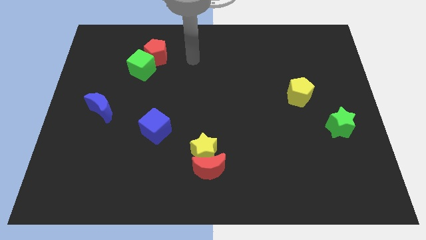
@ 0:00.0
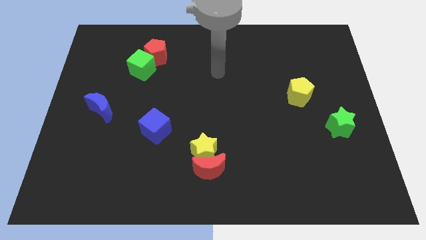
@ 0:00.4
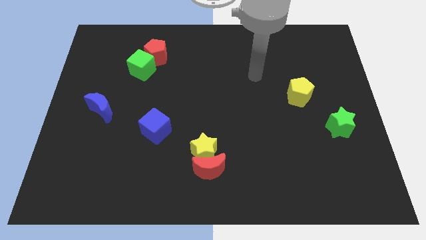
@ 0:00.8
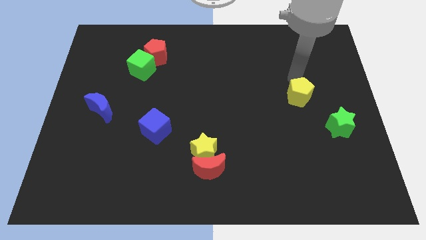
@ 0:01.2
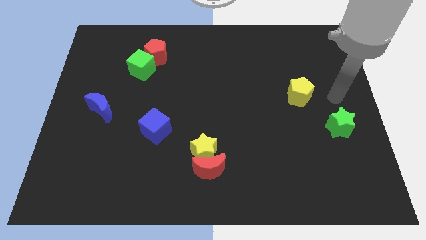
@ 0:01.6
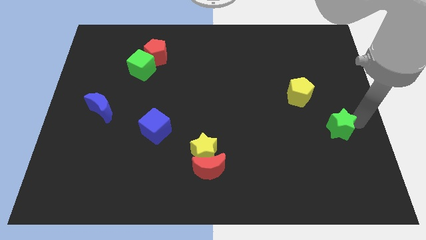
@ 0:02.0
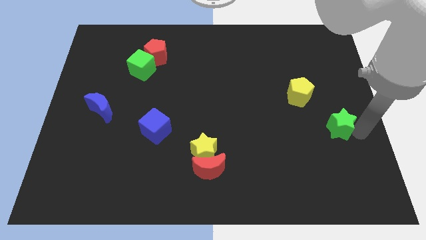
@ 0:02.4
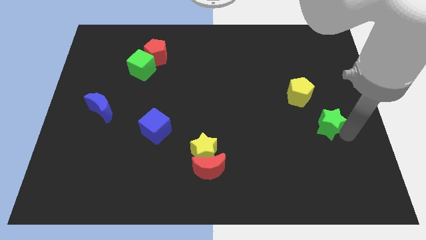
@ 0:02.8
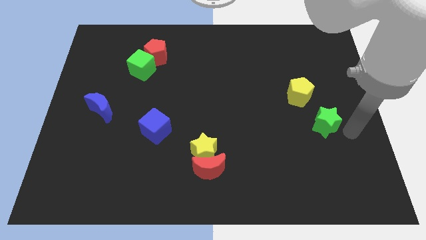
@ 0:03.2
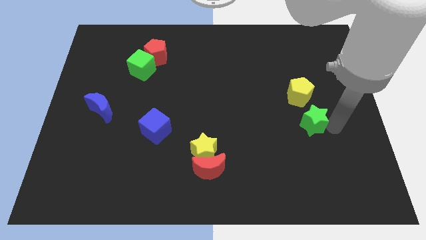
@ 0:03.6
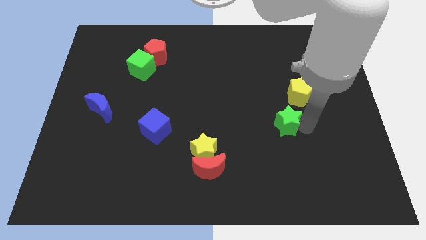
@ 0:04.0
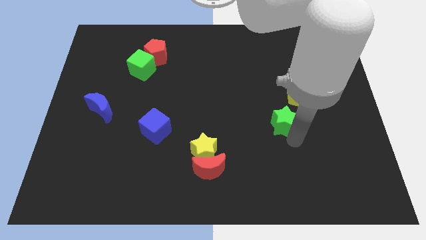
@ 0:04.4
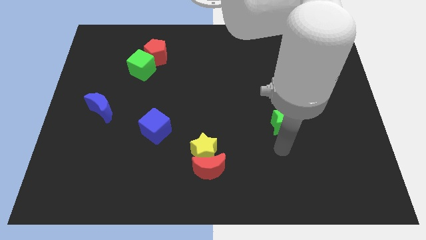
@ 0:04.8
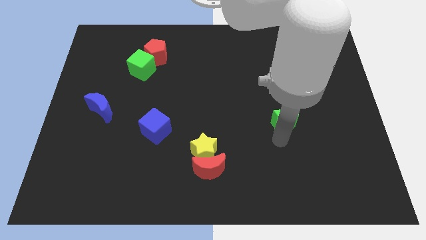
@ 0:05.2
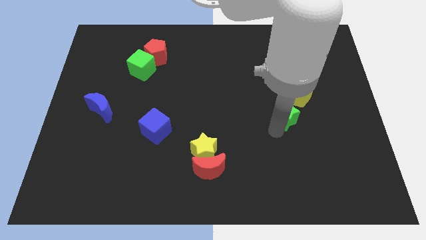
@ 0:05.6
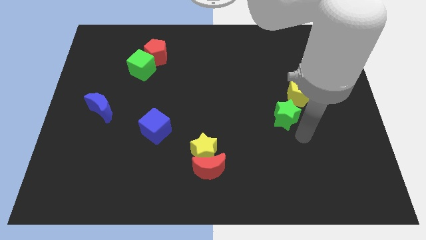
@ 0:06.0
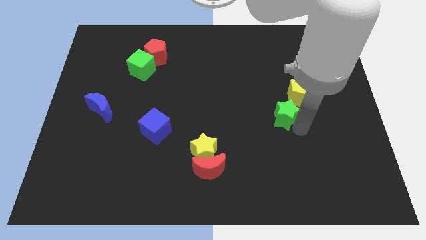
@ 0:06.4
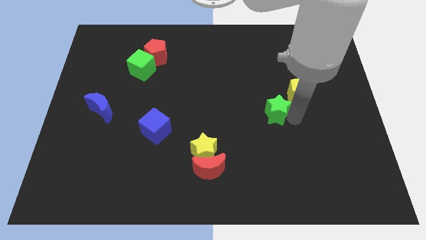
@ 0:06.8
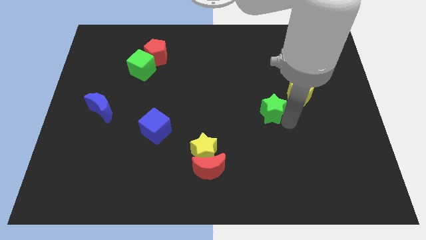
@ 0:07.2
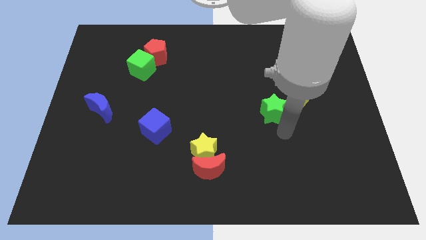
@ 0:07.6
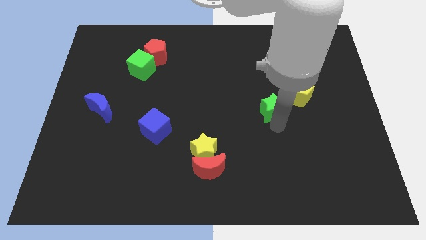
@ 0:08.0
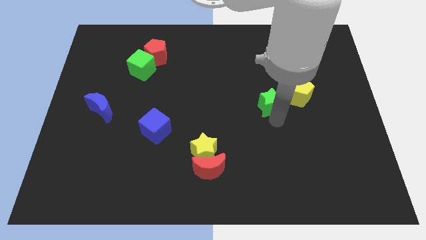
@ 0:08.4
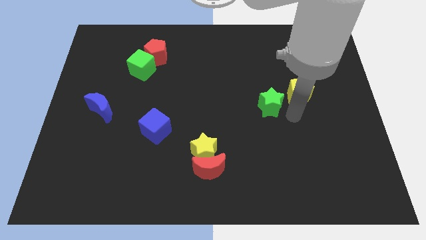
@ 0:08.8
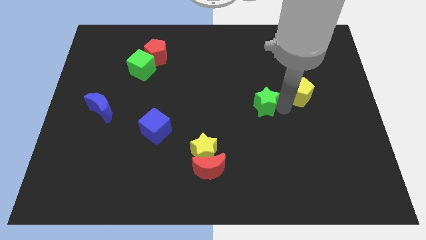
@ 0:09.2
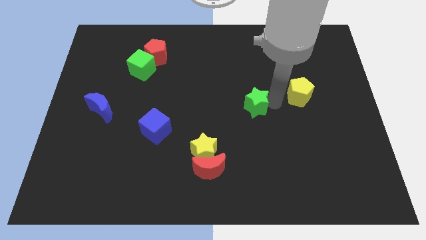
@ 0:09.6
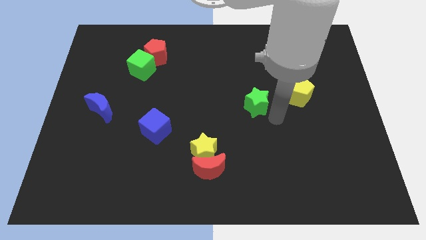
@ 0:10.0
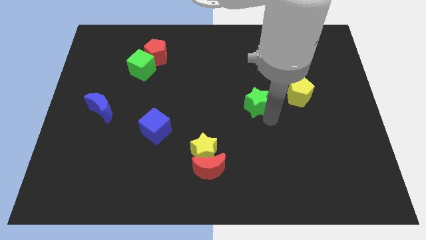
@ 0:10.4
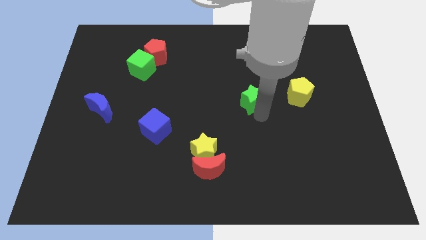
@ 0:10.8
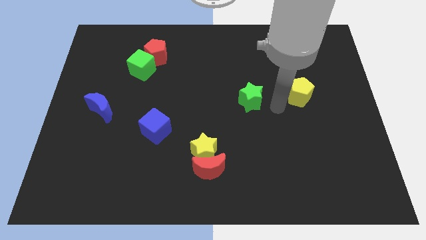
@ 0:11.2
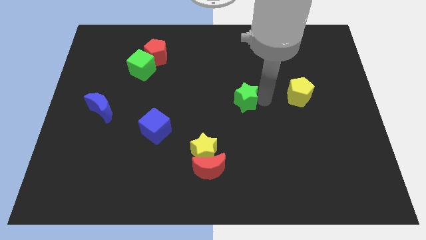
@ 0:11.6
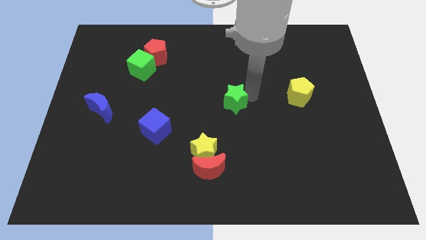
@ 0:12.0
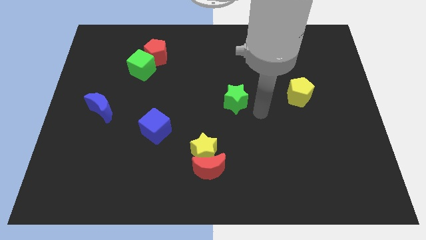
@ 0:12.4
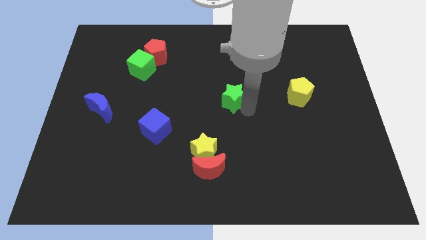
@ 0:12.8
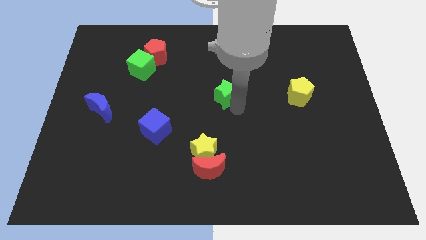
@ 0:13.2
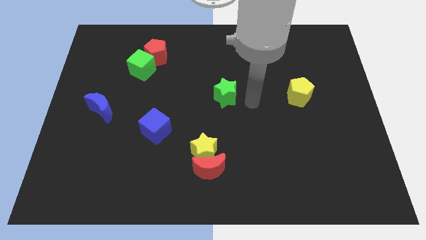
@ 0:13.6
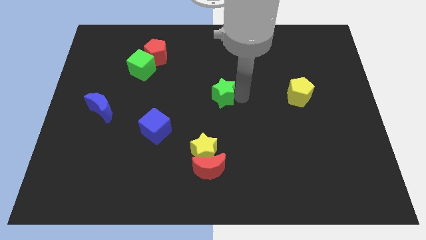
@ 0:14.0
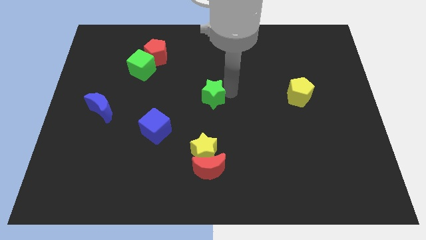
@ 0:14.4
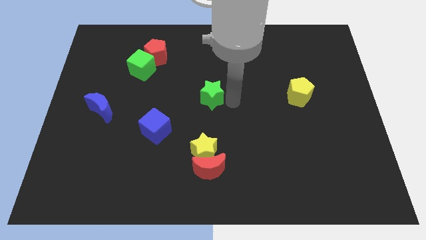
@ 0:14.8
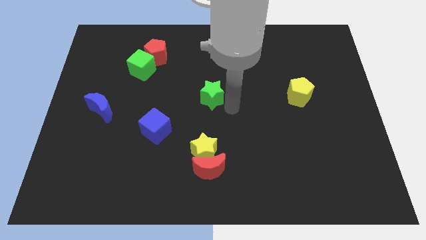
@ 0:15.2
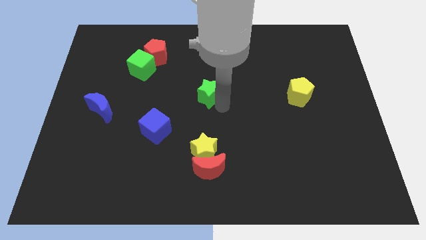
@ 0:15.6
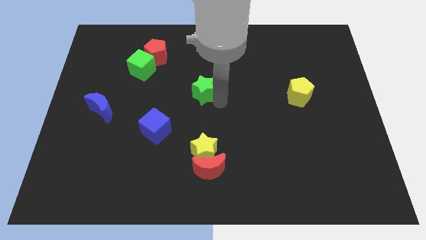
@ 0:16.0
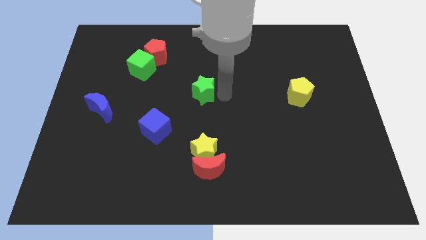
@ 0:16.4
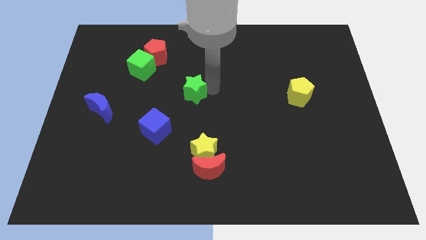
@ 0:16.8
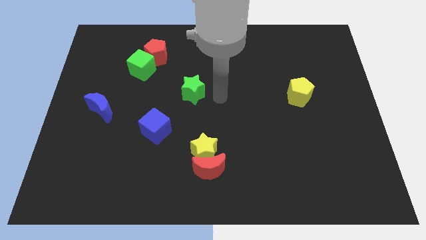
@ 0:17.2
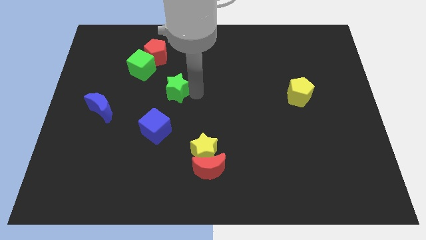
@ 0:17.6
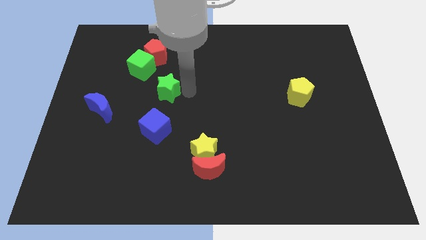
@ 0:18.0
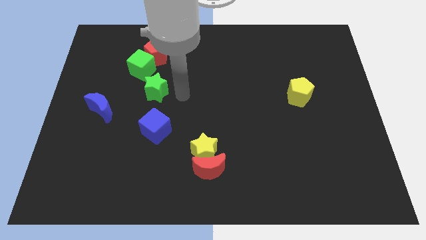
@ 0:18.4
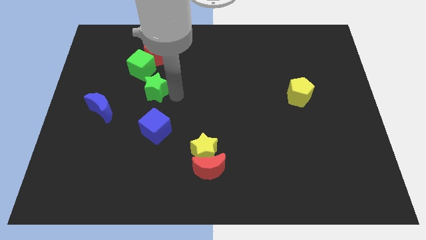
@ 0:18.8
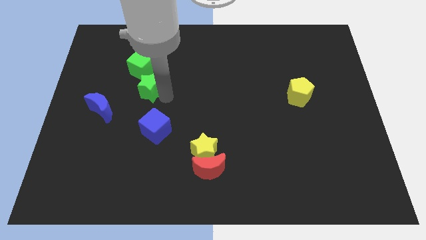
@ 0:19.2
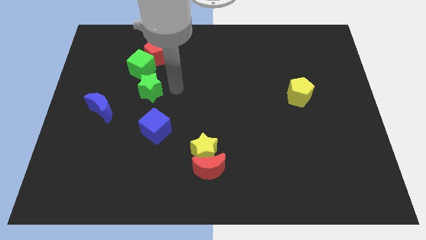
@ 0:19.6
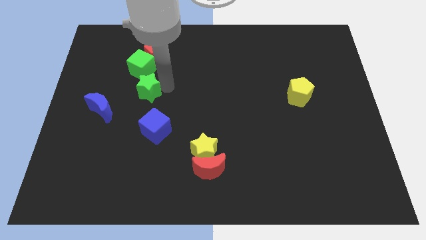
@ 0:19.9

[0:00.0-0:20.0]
move the green star diagonally up and to the right of the blue moon

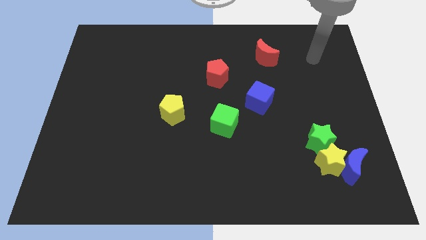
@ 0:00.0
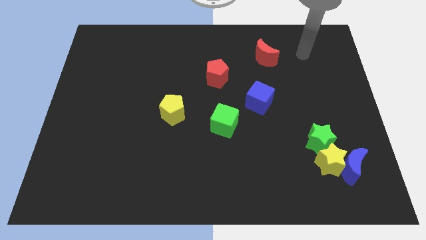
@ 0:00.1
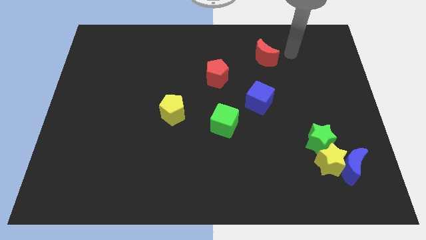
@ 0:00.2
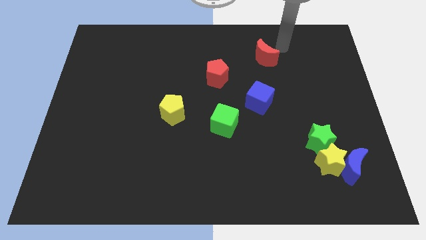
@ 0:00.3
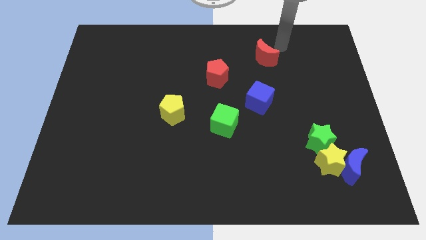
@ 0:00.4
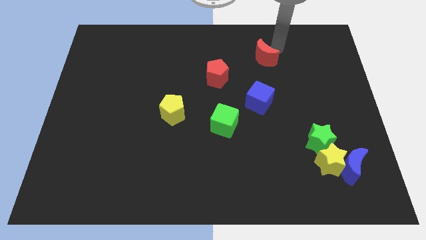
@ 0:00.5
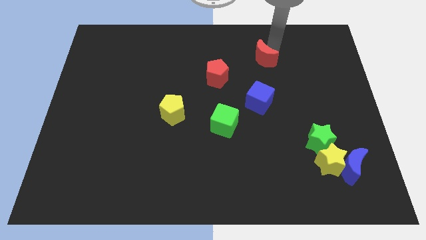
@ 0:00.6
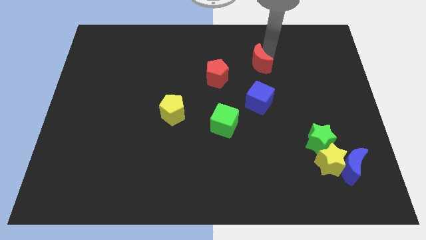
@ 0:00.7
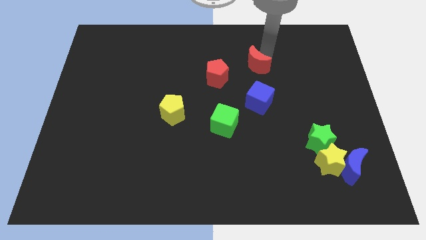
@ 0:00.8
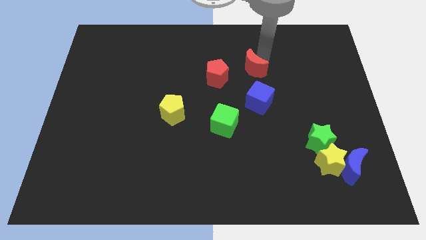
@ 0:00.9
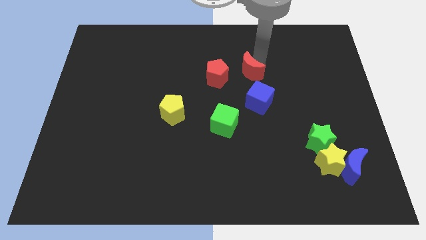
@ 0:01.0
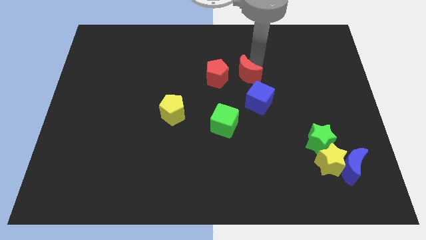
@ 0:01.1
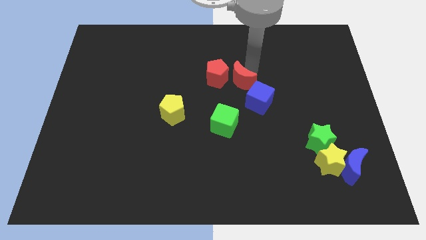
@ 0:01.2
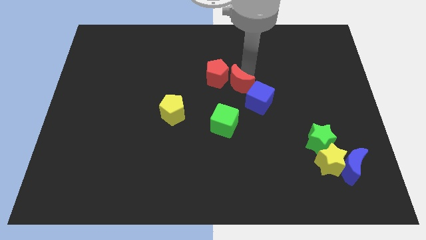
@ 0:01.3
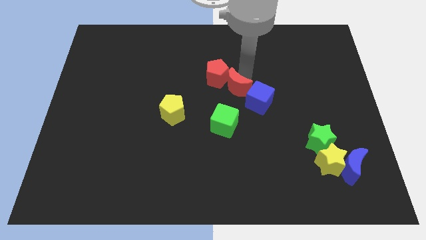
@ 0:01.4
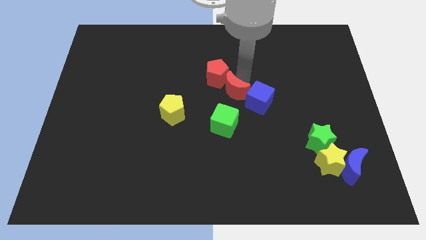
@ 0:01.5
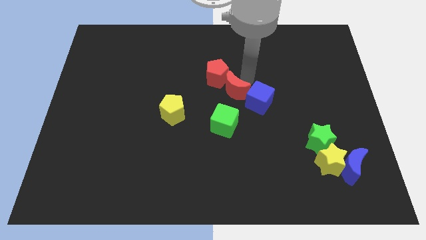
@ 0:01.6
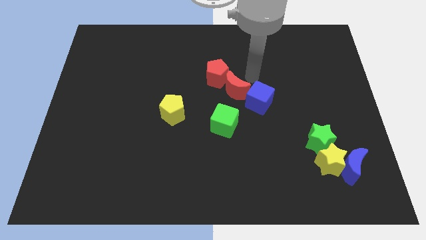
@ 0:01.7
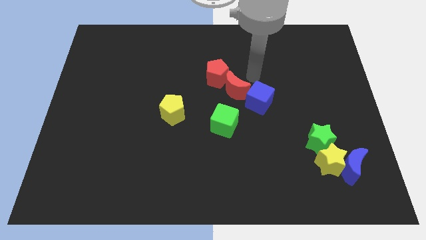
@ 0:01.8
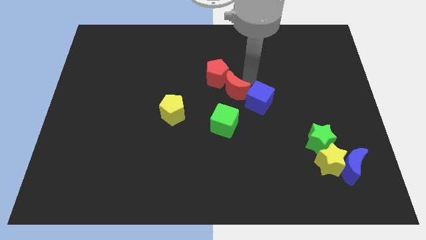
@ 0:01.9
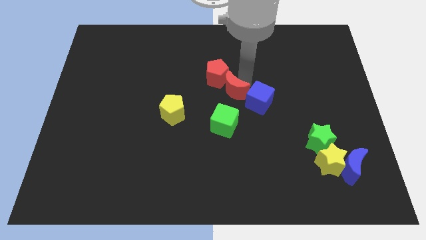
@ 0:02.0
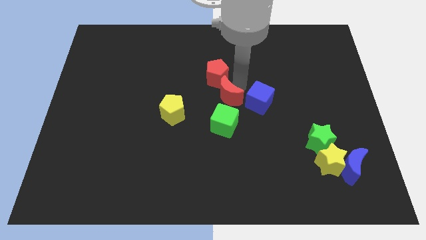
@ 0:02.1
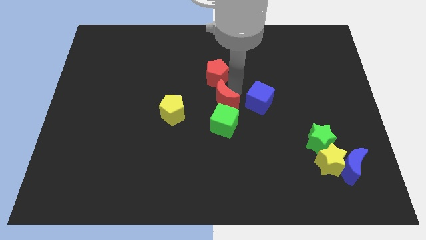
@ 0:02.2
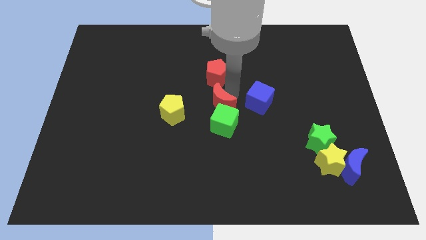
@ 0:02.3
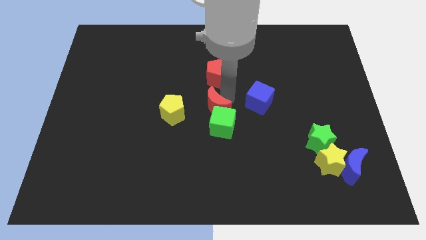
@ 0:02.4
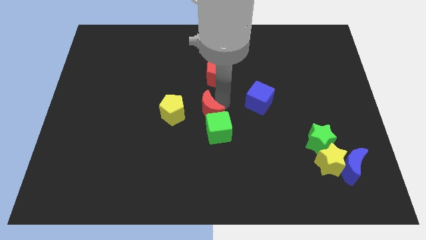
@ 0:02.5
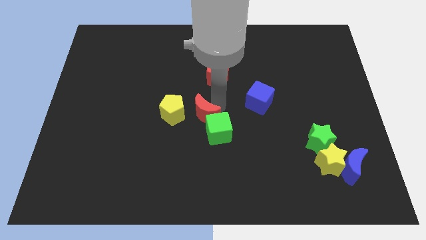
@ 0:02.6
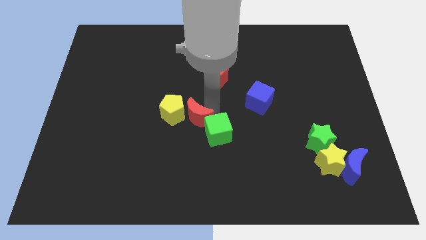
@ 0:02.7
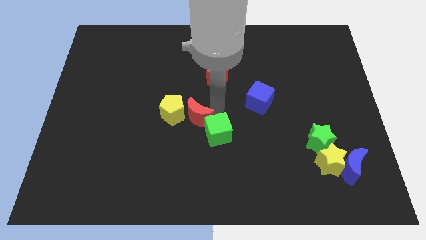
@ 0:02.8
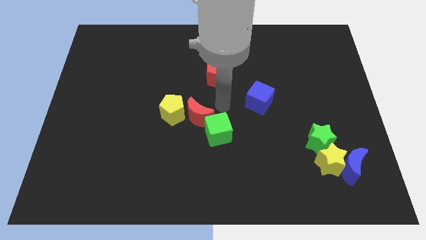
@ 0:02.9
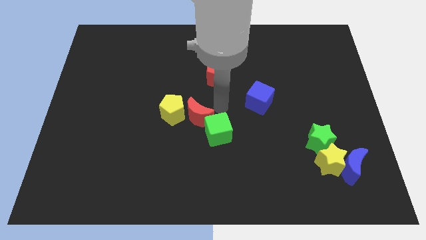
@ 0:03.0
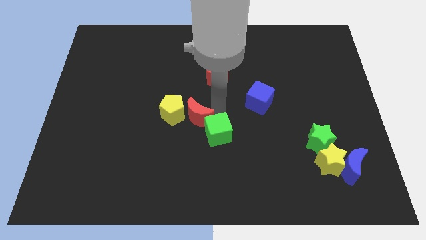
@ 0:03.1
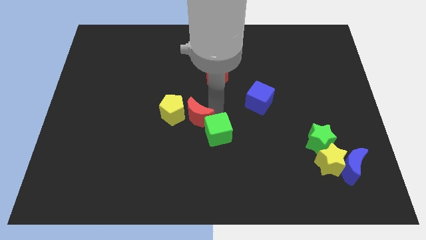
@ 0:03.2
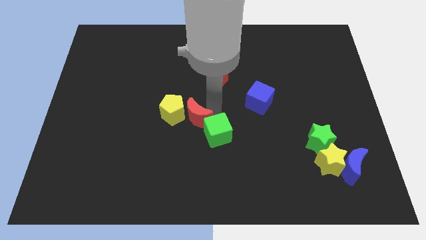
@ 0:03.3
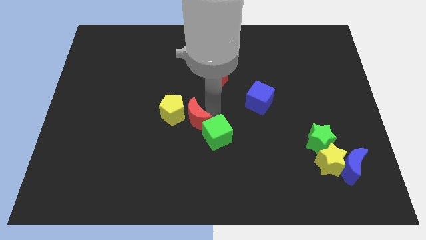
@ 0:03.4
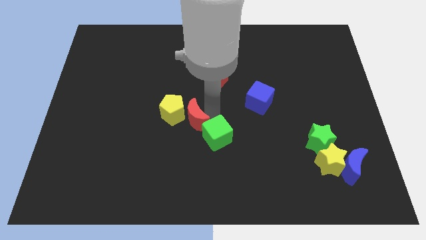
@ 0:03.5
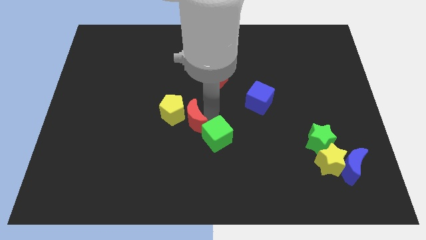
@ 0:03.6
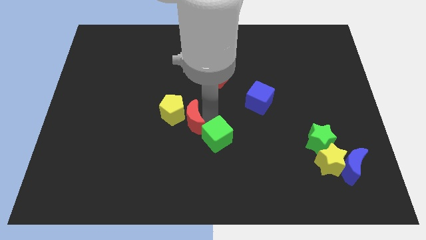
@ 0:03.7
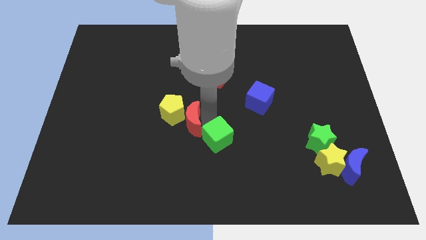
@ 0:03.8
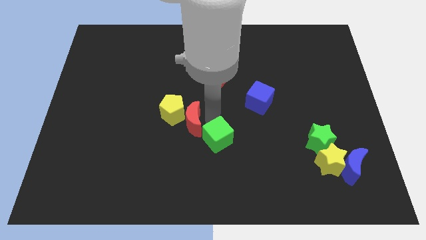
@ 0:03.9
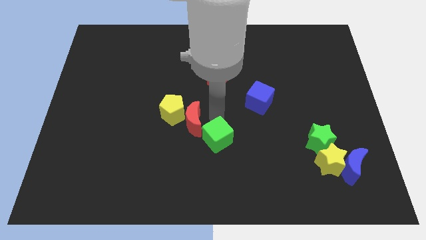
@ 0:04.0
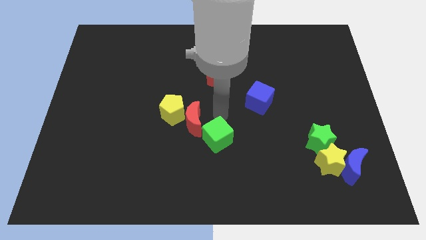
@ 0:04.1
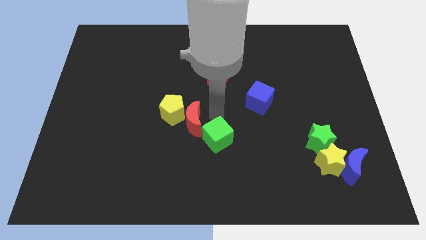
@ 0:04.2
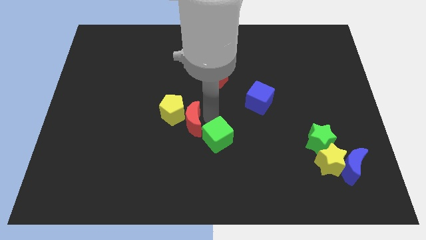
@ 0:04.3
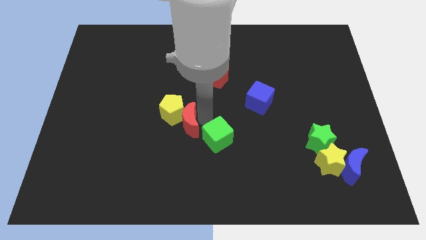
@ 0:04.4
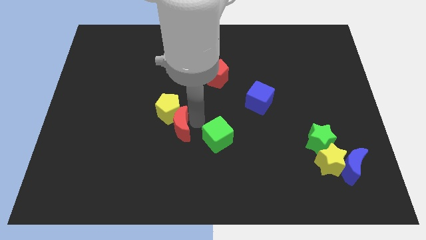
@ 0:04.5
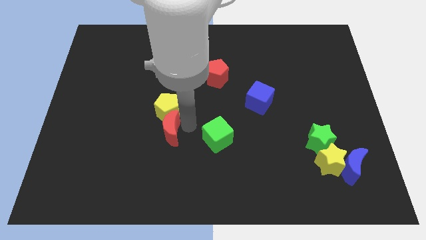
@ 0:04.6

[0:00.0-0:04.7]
push the red moon to the bottom left side of the yellow pentagon
